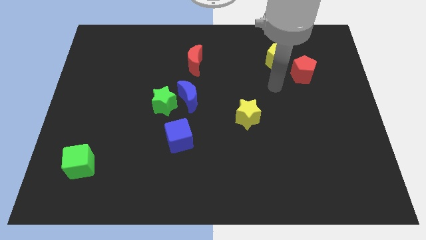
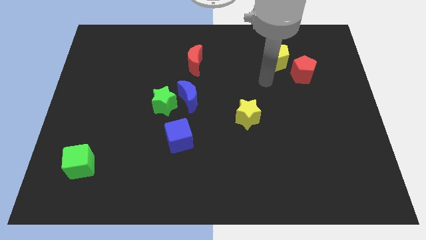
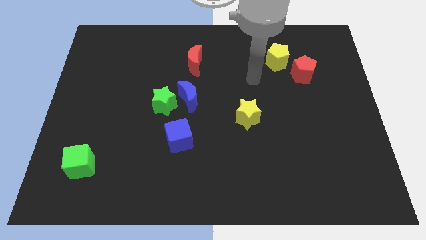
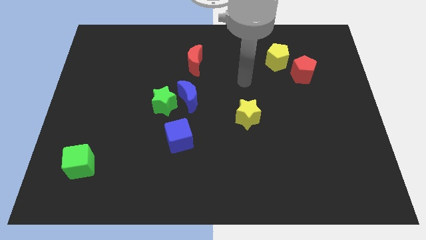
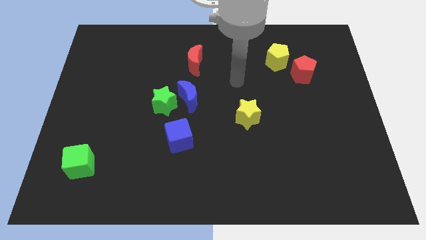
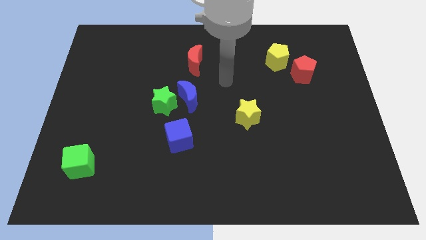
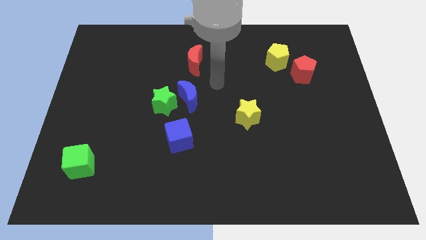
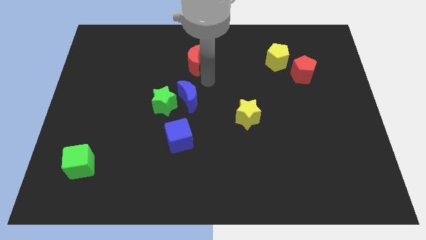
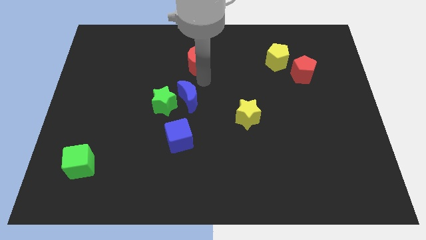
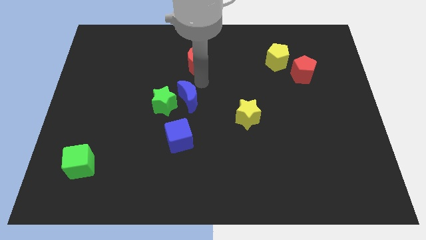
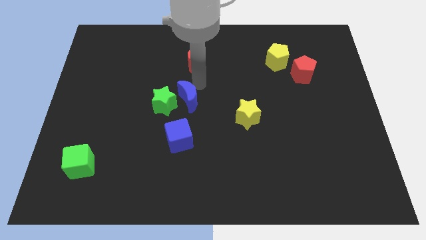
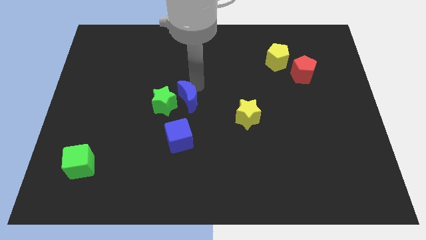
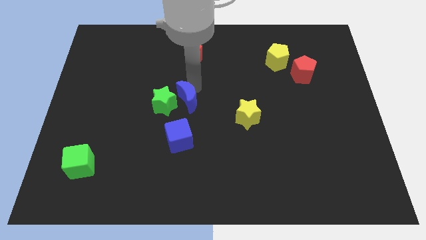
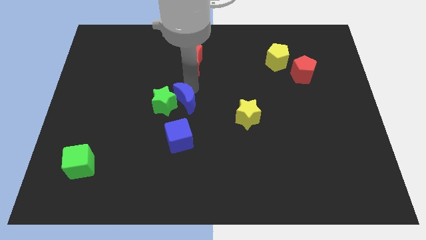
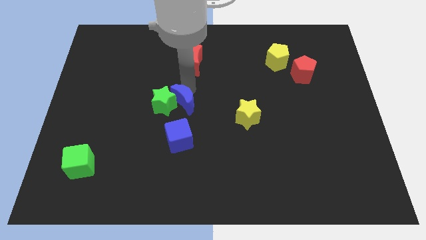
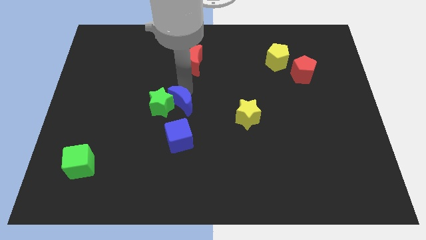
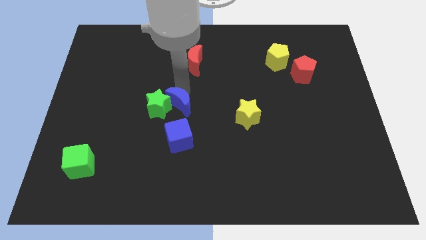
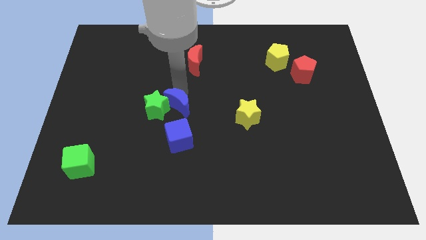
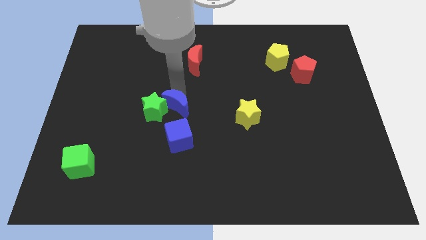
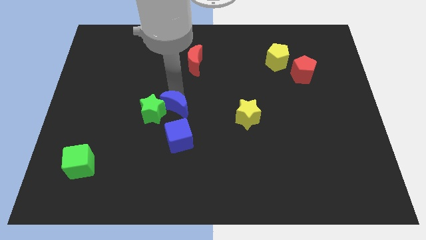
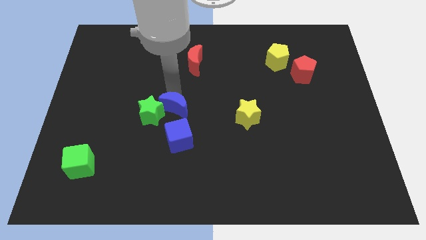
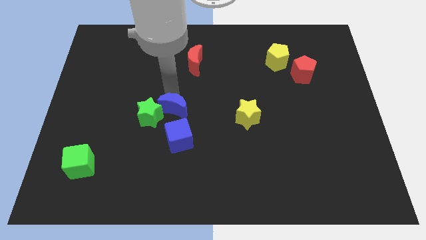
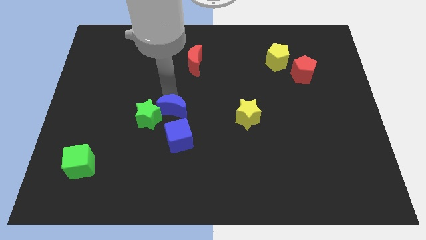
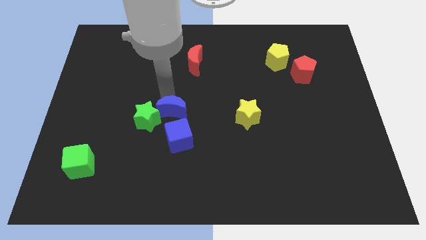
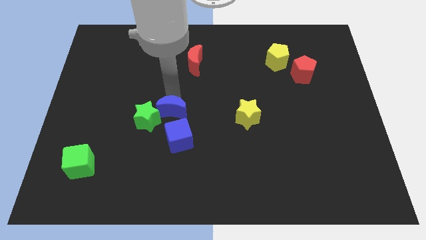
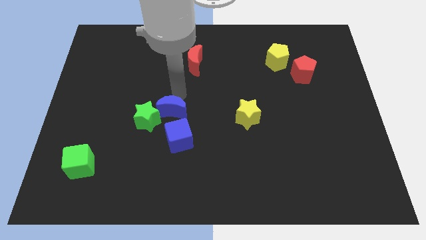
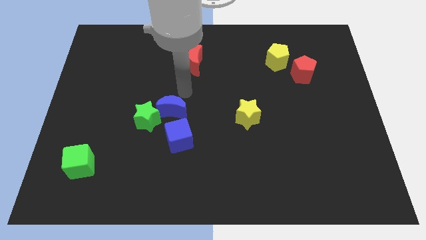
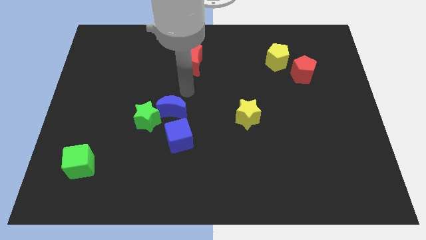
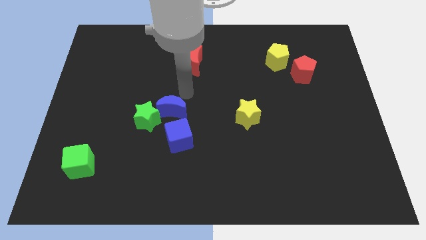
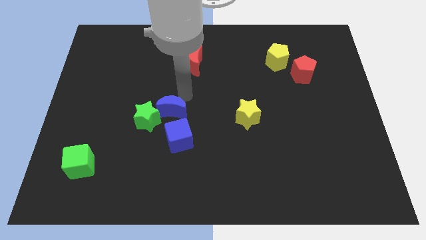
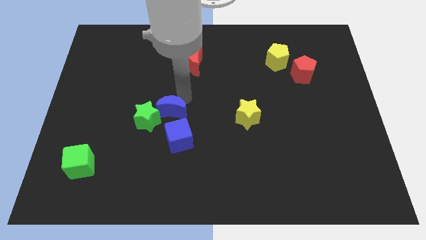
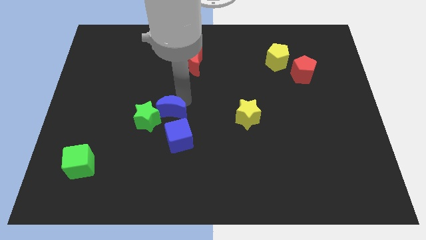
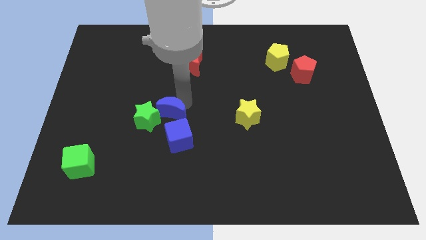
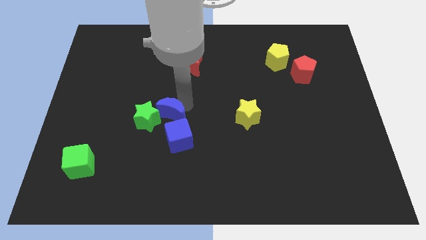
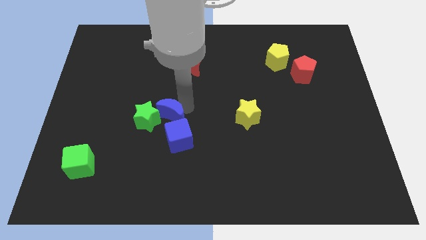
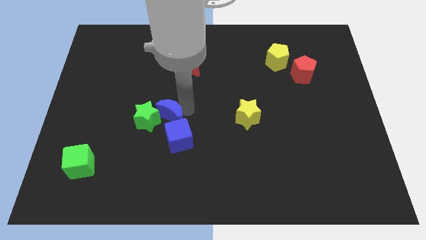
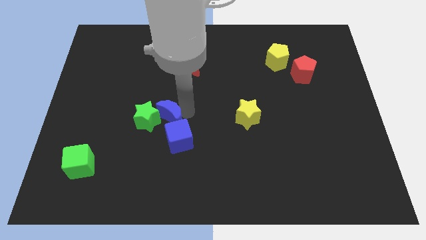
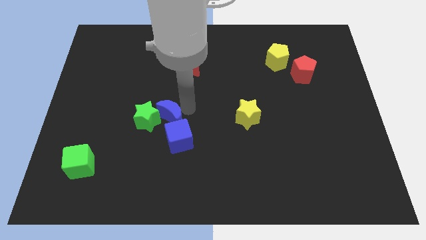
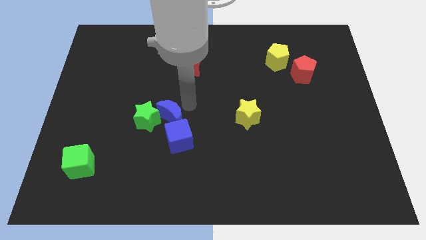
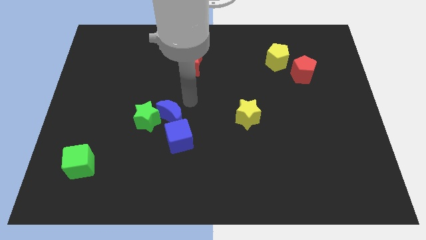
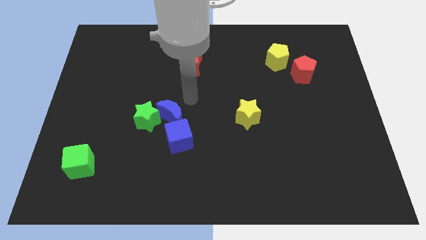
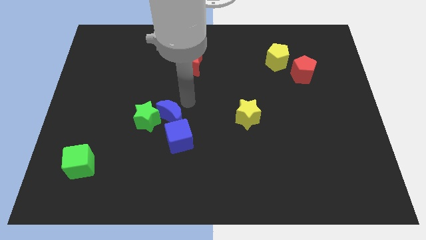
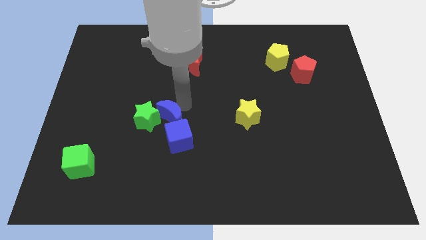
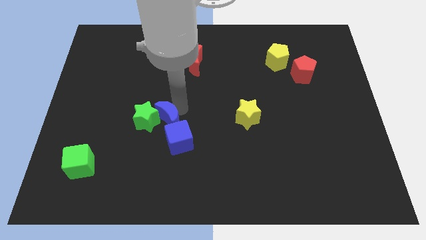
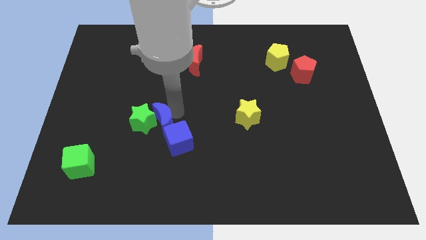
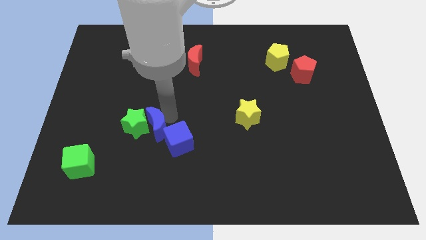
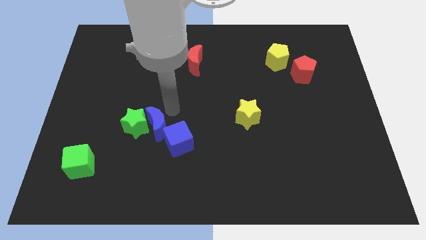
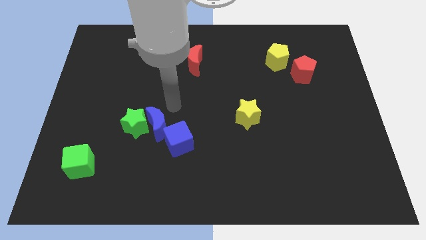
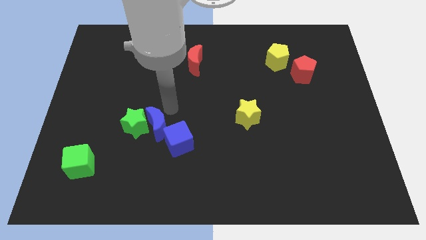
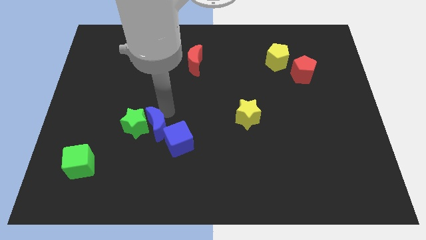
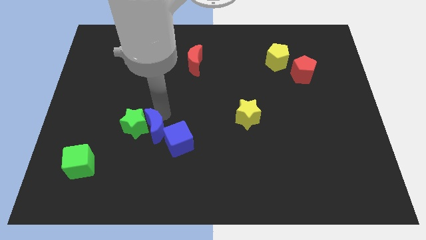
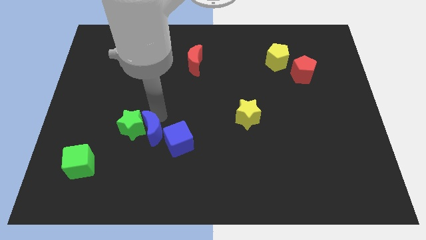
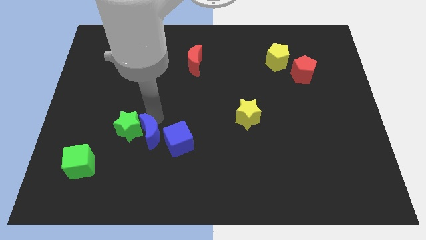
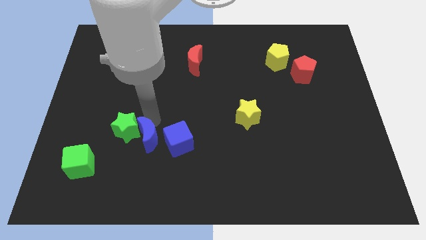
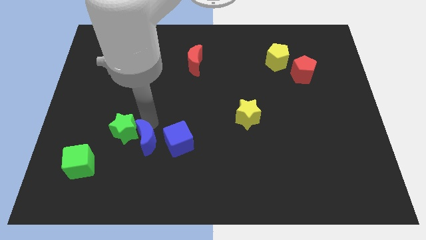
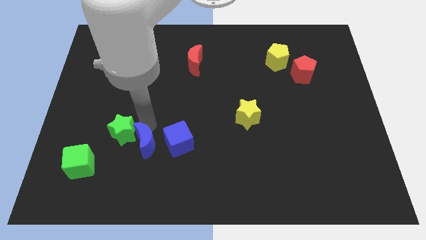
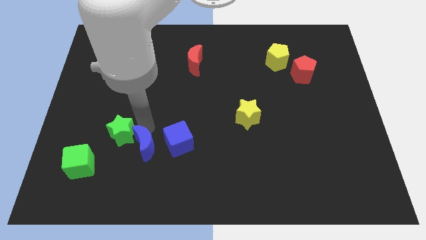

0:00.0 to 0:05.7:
put the blue moon to the right side of the green cube

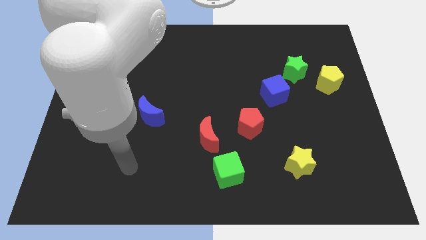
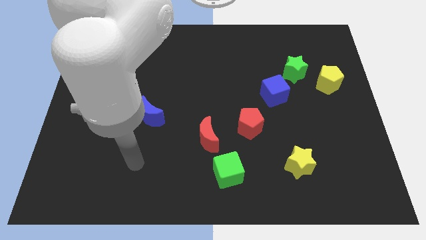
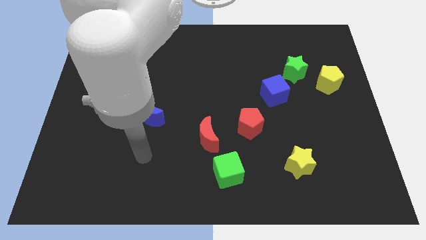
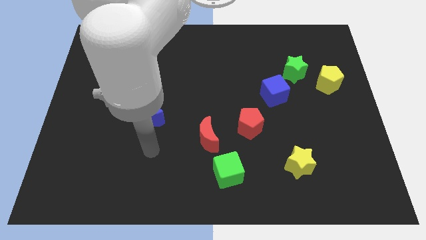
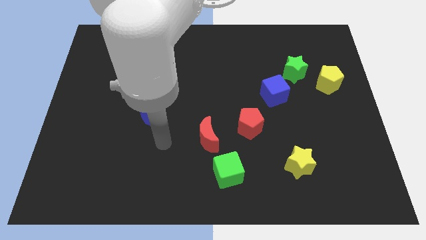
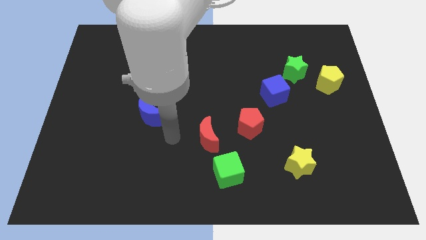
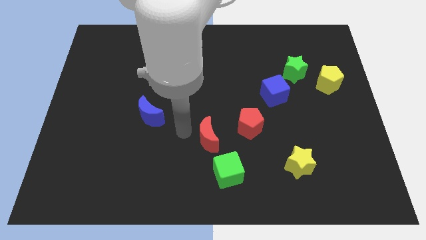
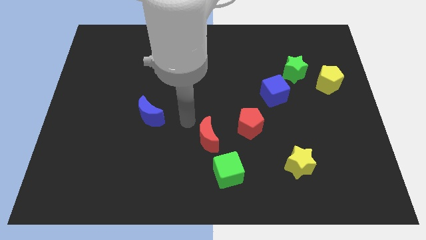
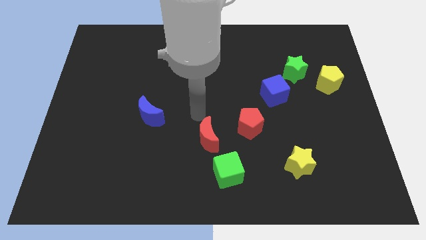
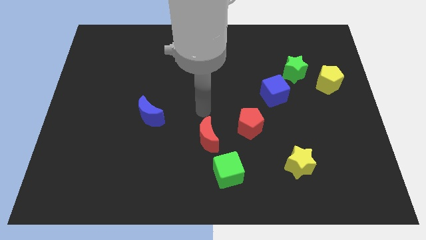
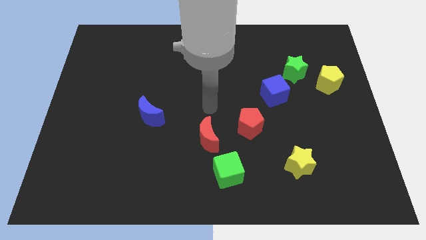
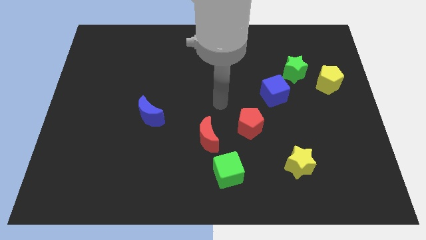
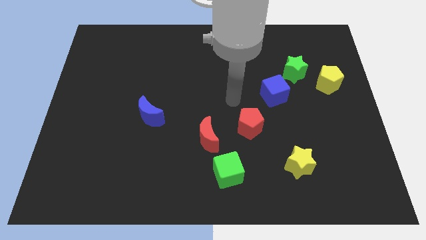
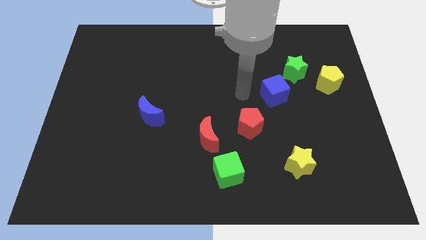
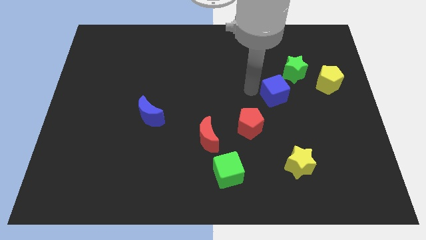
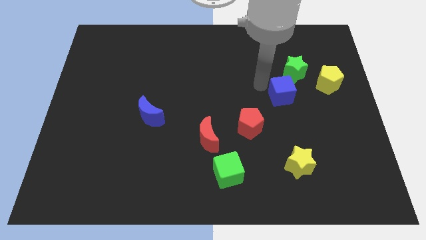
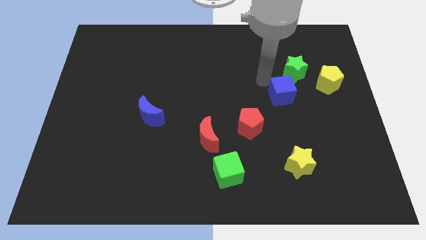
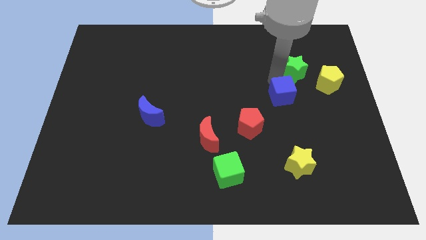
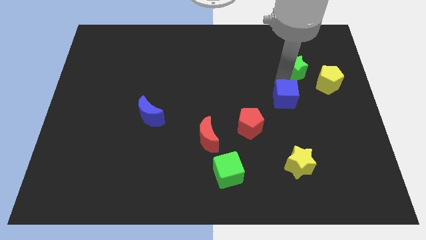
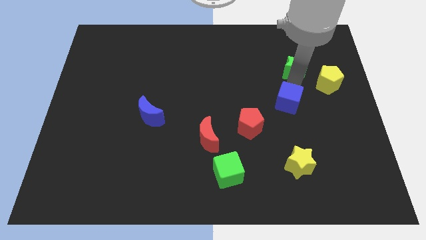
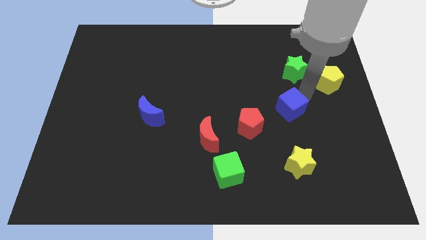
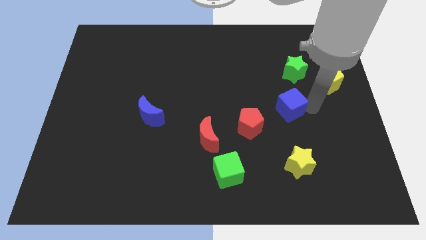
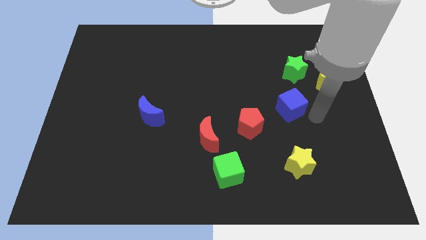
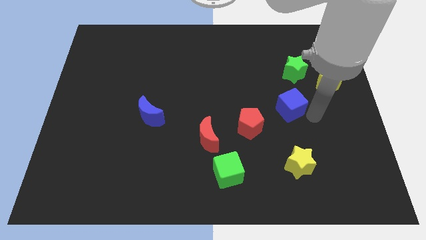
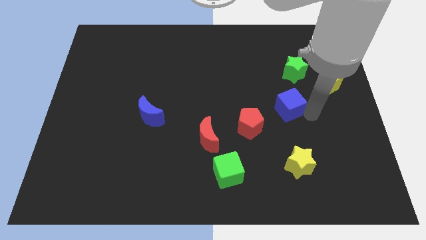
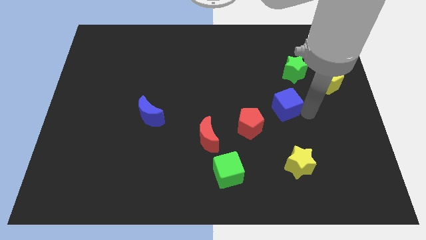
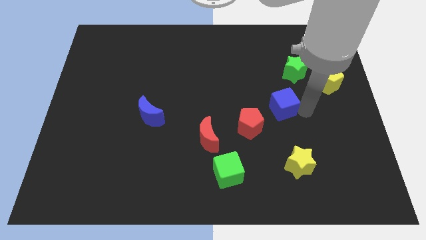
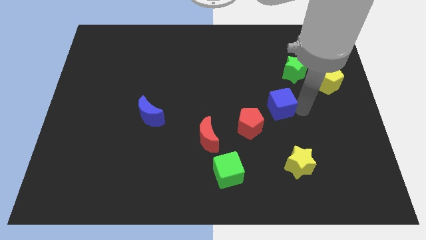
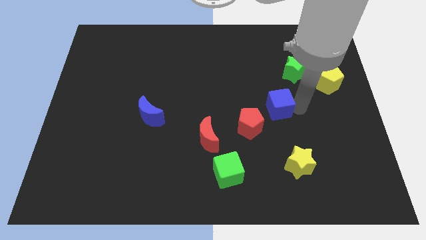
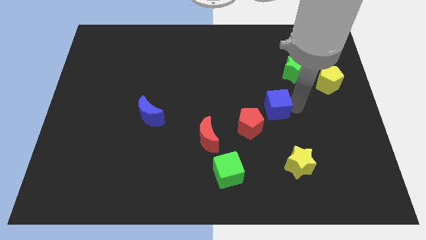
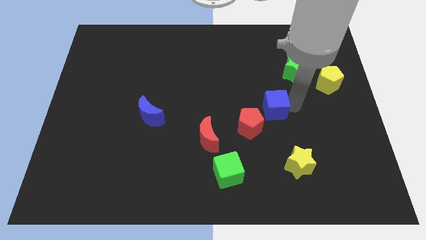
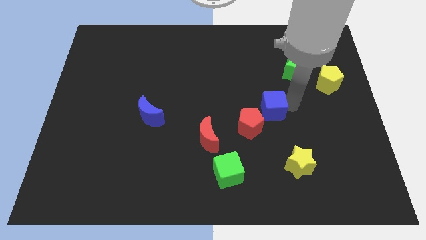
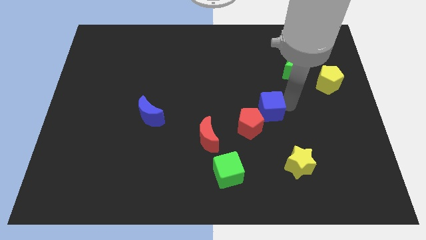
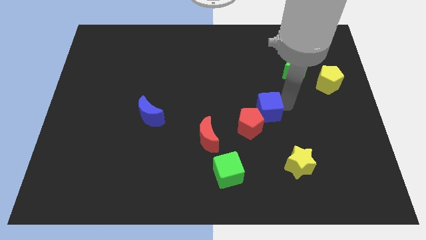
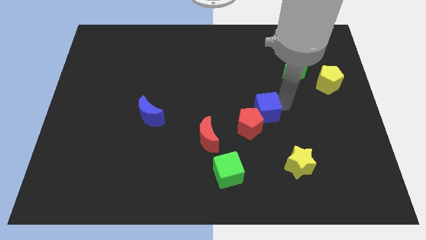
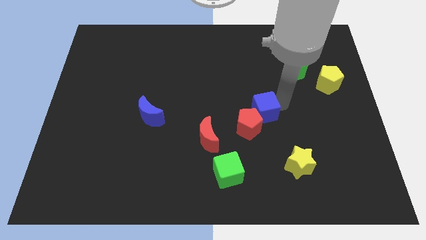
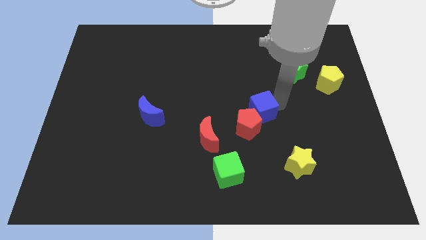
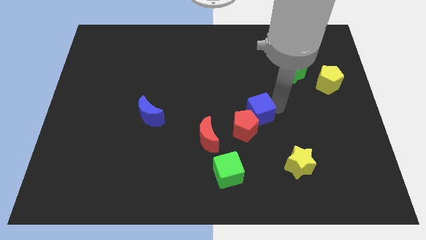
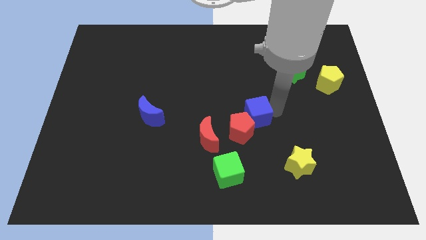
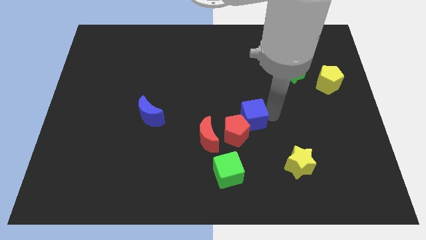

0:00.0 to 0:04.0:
slide the blue cube diagonally up and to the right of the red moon
